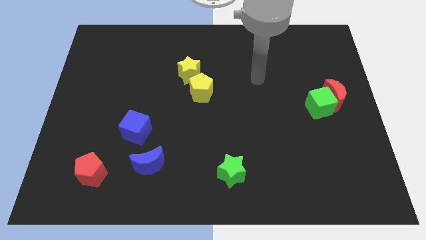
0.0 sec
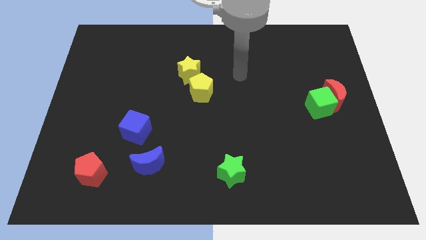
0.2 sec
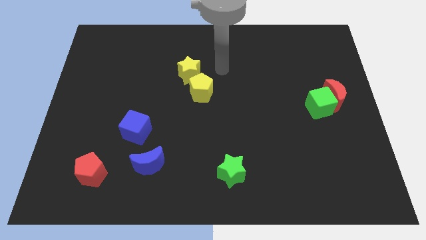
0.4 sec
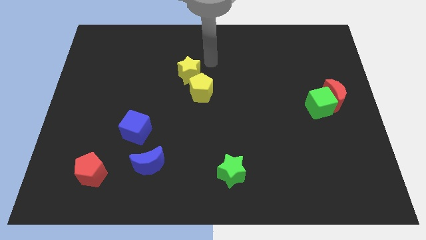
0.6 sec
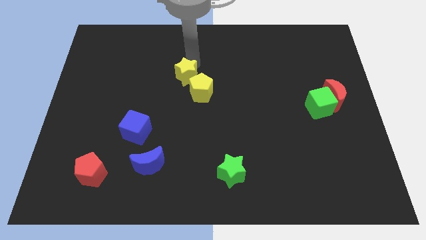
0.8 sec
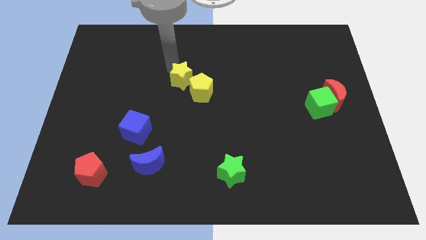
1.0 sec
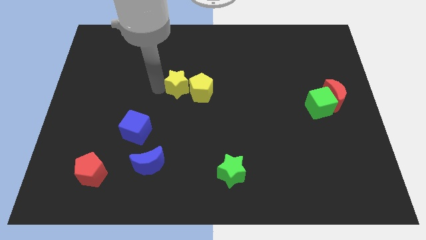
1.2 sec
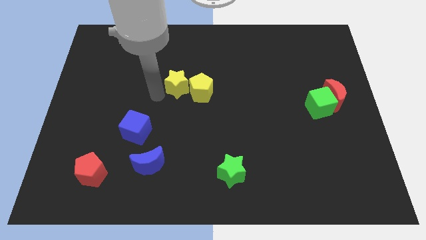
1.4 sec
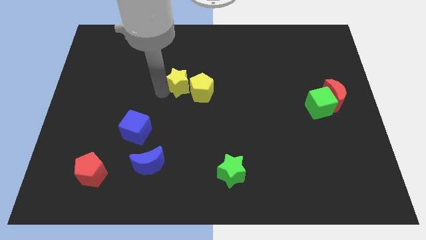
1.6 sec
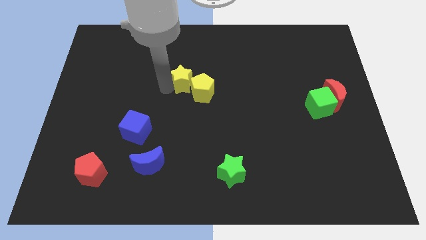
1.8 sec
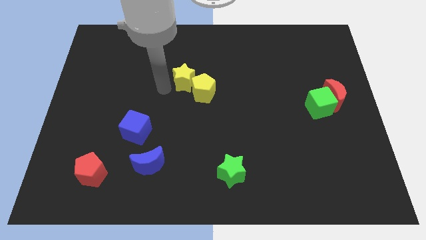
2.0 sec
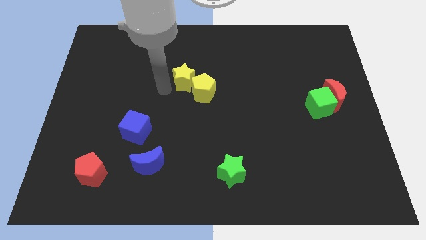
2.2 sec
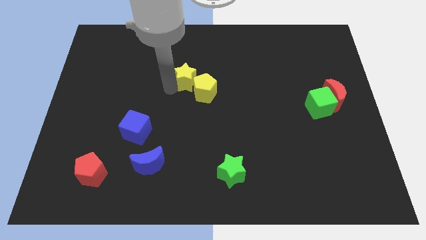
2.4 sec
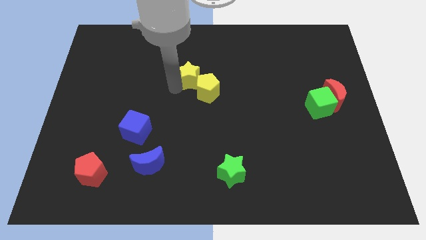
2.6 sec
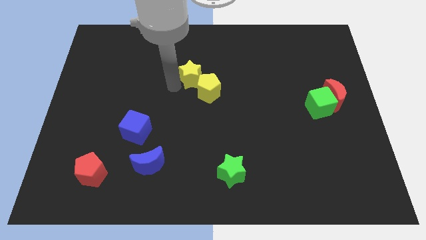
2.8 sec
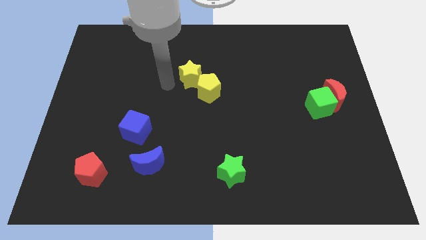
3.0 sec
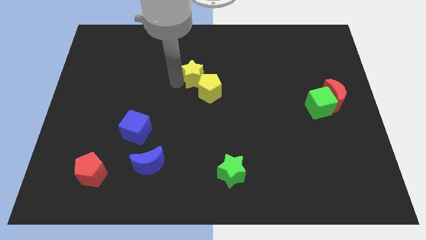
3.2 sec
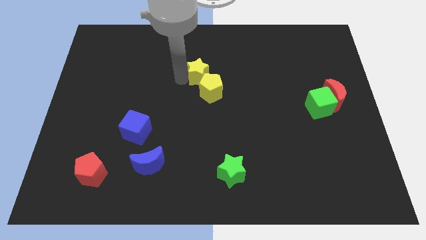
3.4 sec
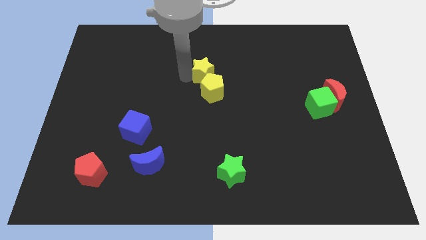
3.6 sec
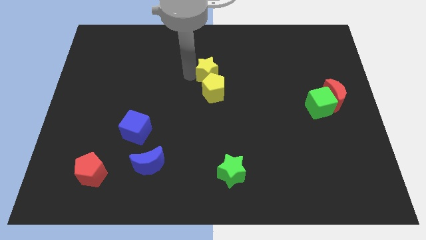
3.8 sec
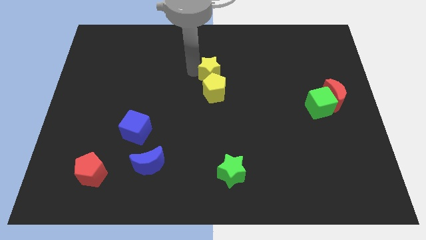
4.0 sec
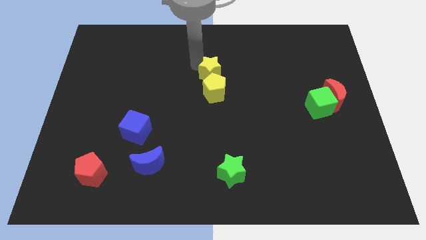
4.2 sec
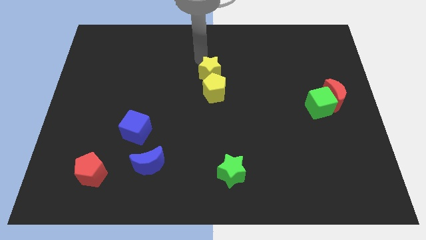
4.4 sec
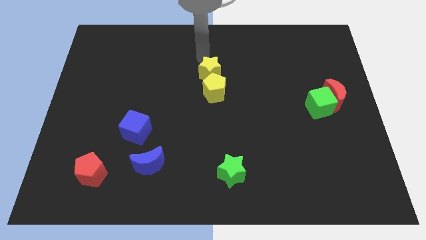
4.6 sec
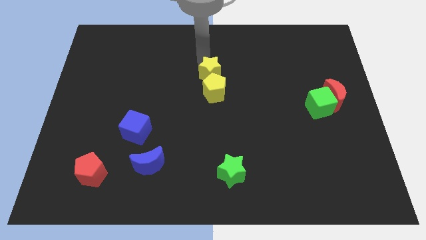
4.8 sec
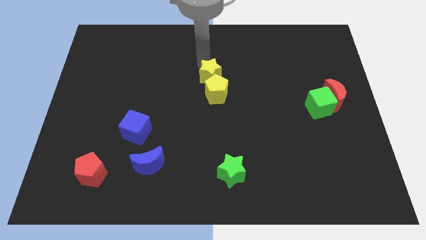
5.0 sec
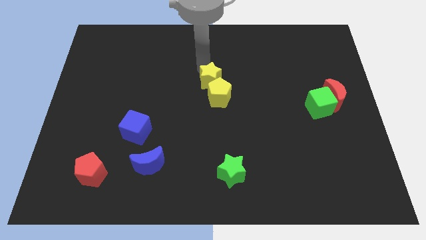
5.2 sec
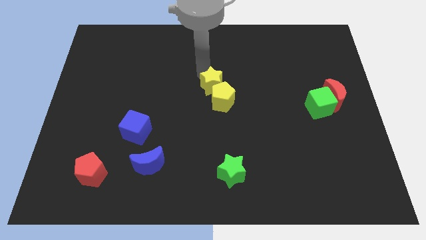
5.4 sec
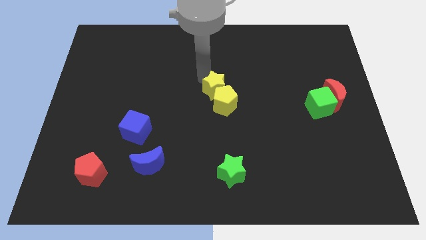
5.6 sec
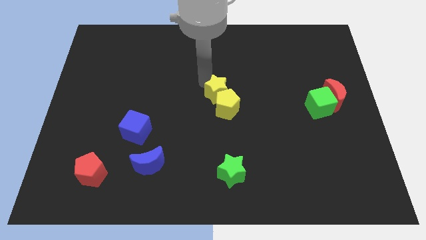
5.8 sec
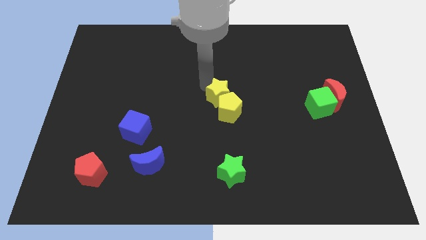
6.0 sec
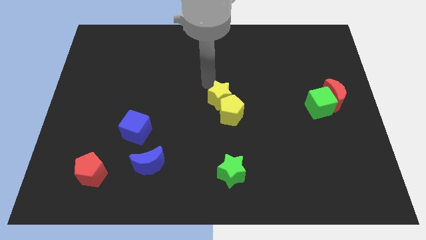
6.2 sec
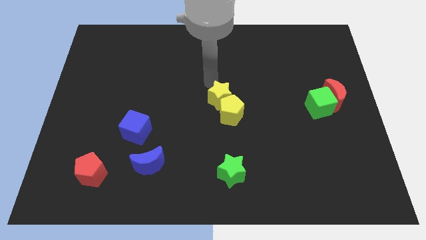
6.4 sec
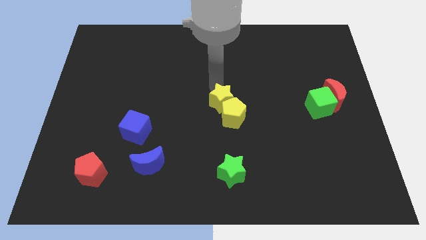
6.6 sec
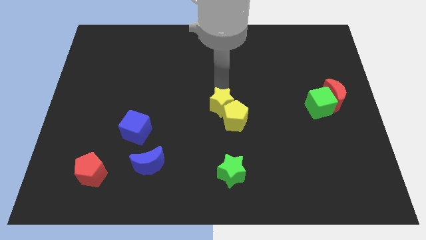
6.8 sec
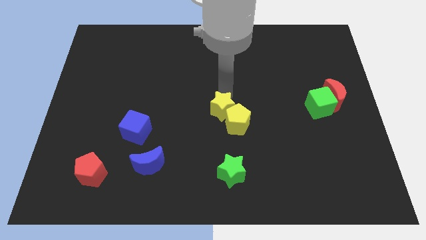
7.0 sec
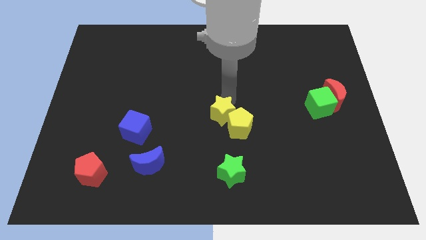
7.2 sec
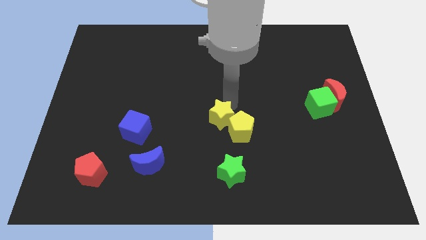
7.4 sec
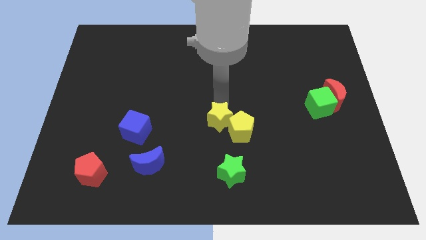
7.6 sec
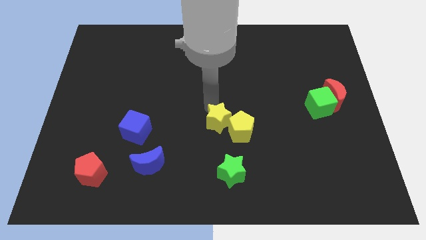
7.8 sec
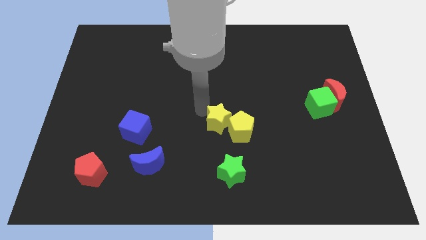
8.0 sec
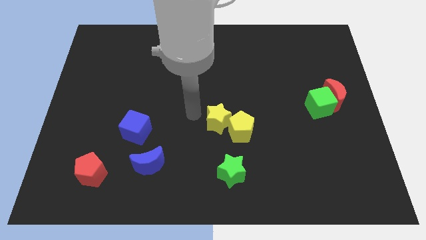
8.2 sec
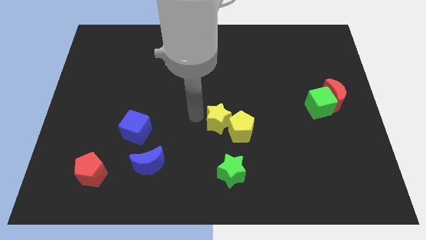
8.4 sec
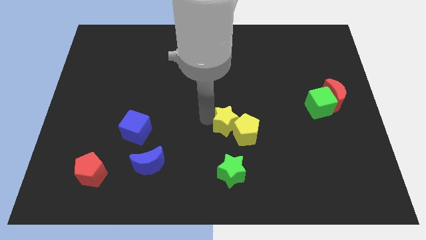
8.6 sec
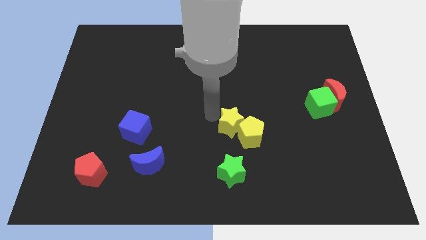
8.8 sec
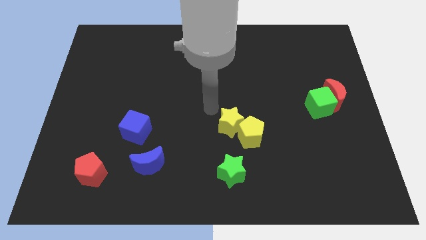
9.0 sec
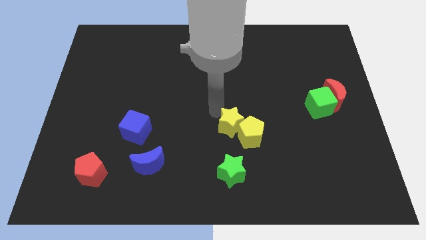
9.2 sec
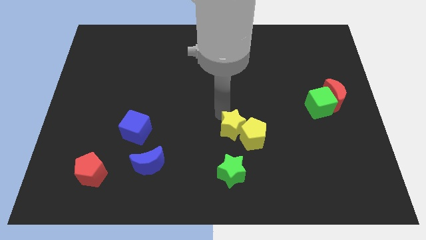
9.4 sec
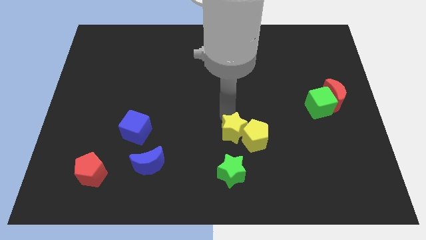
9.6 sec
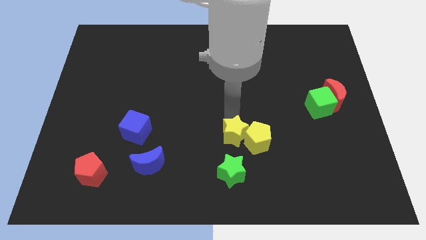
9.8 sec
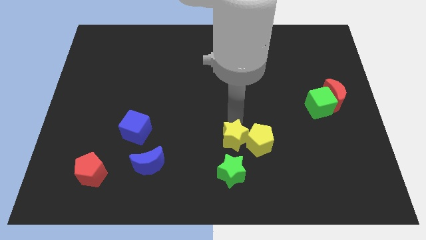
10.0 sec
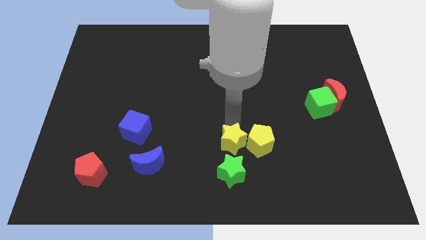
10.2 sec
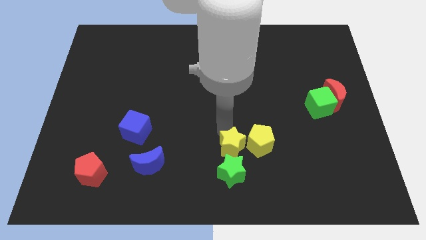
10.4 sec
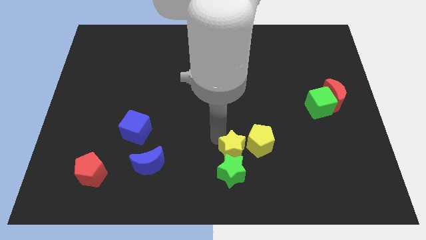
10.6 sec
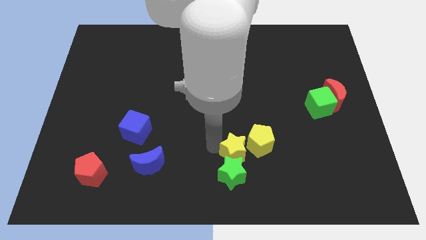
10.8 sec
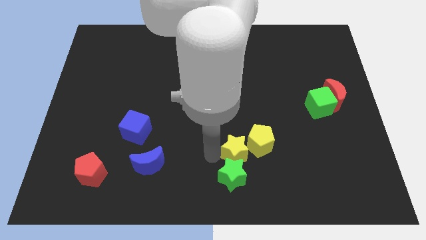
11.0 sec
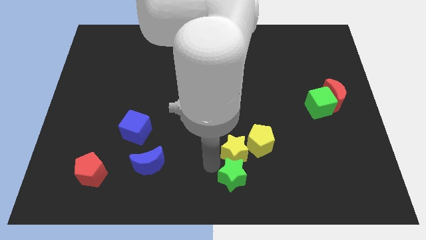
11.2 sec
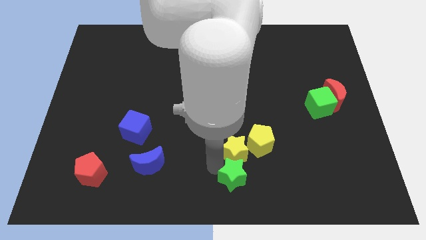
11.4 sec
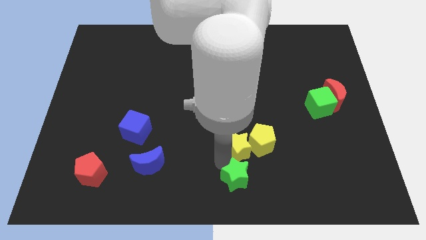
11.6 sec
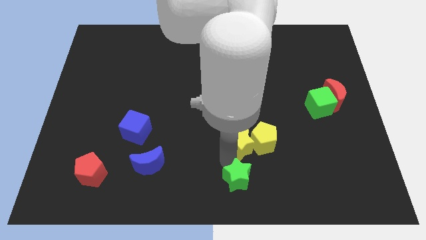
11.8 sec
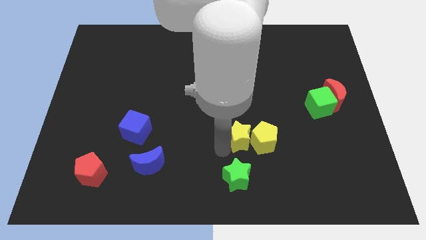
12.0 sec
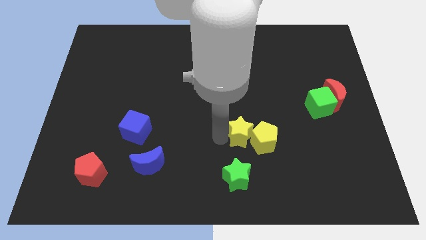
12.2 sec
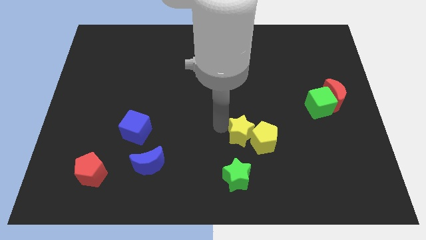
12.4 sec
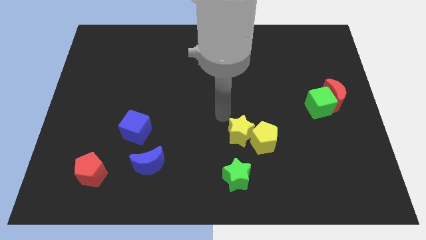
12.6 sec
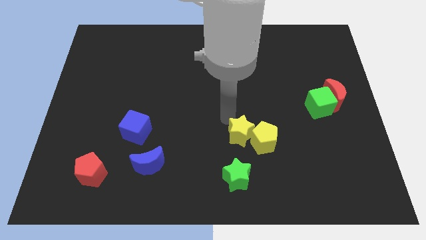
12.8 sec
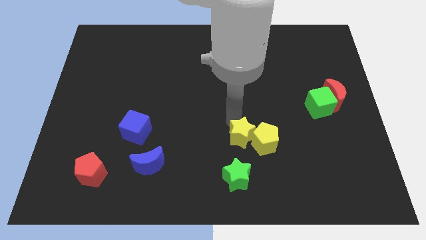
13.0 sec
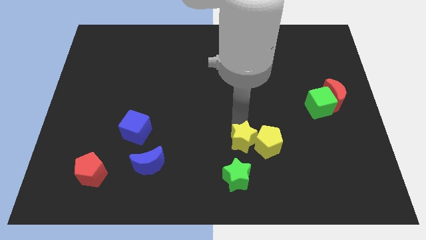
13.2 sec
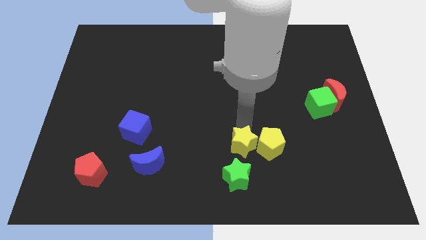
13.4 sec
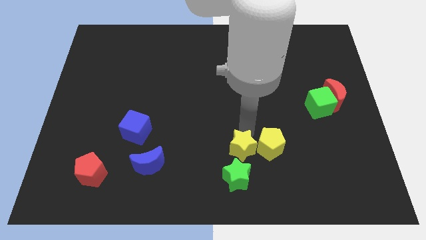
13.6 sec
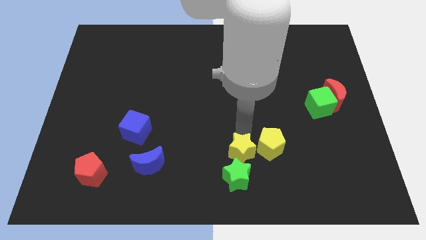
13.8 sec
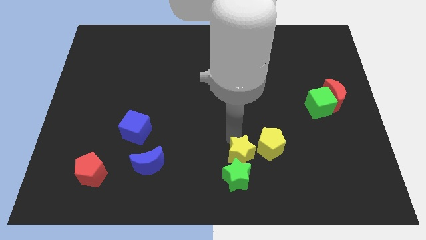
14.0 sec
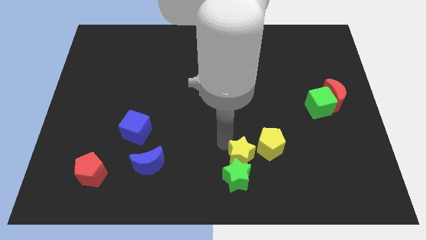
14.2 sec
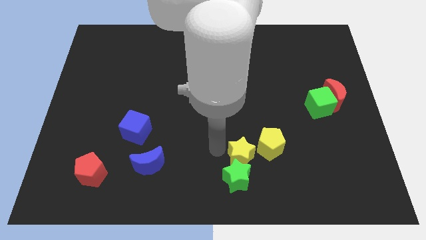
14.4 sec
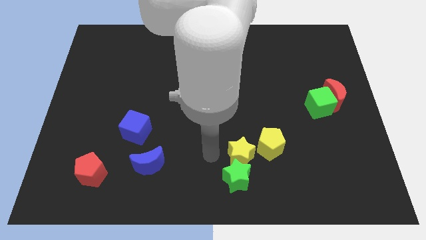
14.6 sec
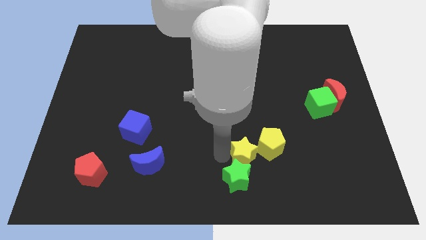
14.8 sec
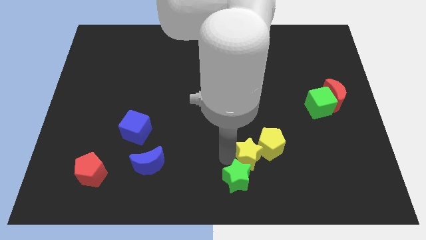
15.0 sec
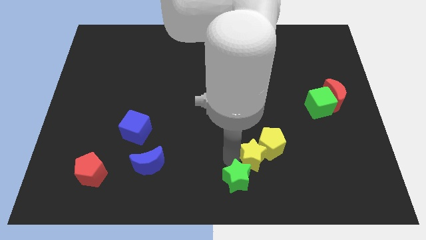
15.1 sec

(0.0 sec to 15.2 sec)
move the yellow star to the right side of the green star
